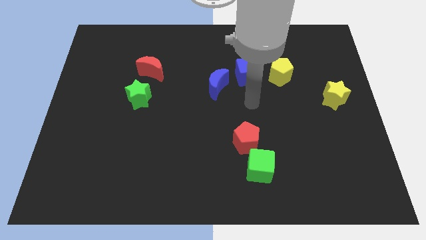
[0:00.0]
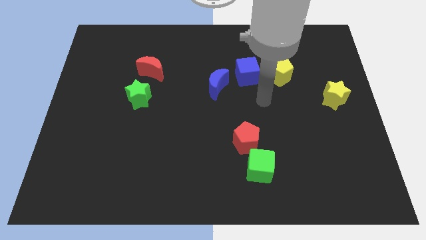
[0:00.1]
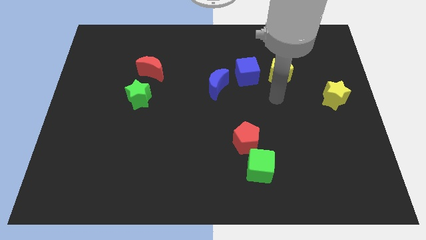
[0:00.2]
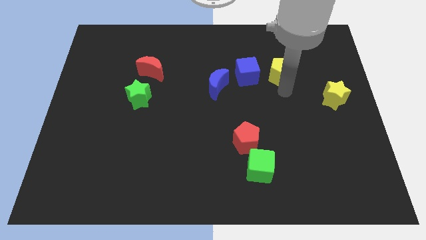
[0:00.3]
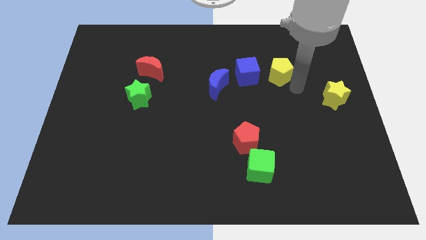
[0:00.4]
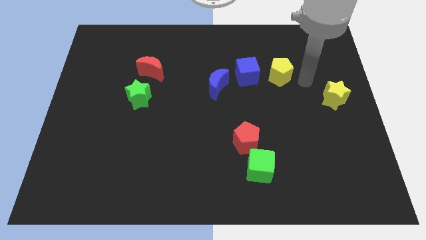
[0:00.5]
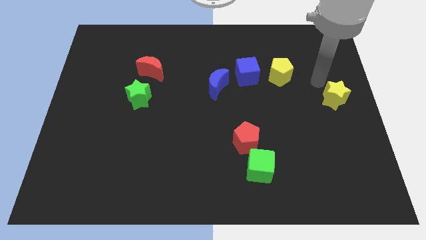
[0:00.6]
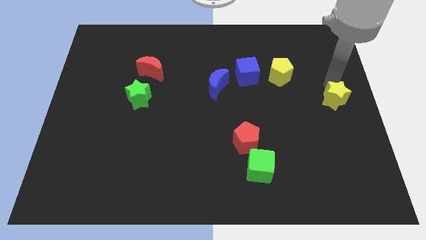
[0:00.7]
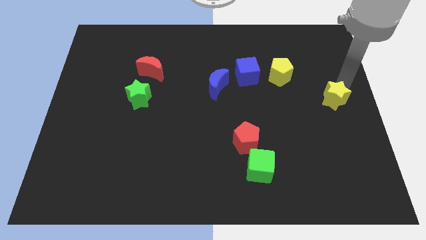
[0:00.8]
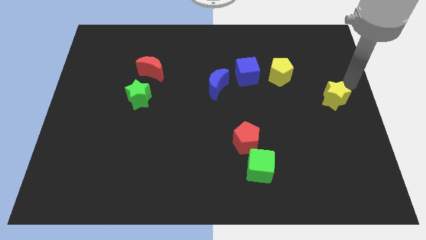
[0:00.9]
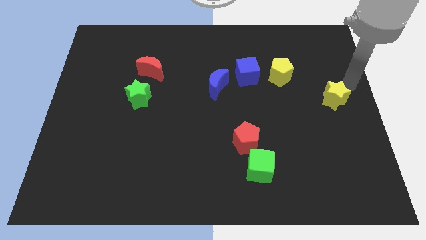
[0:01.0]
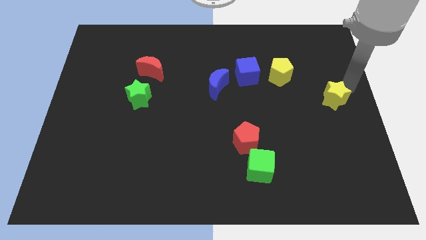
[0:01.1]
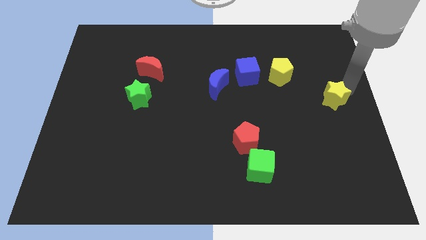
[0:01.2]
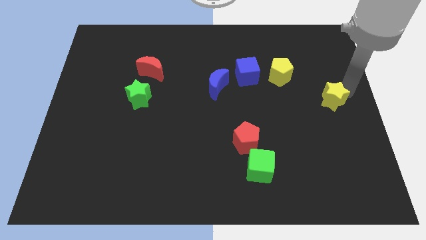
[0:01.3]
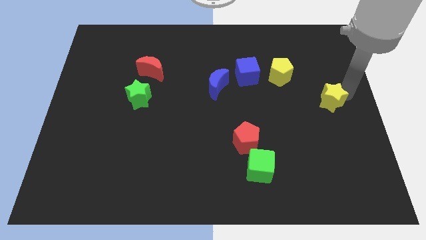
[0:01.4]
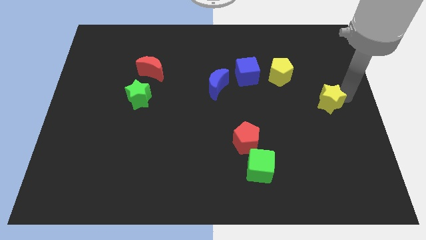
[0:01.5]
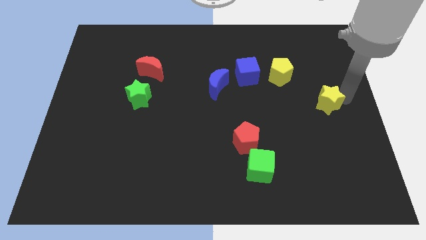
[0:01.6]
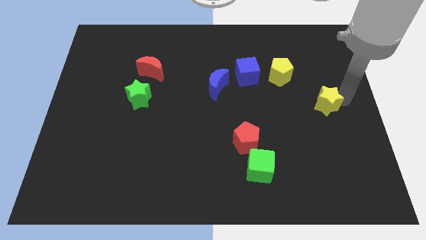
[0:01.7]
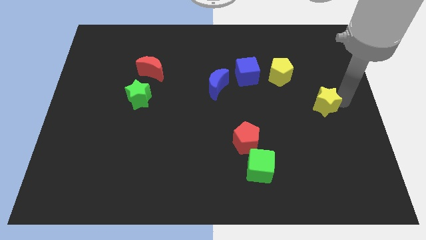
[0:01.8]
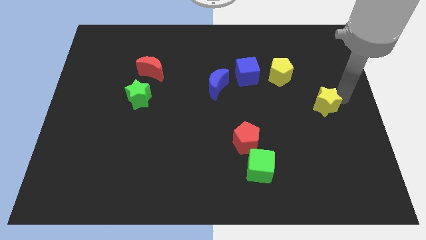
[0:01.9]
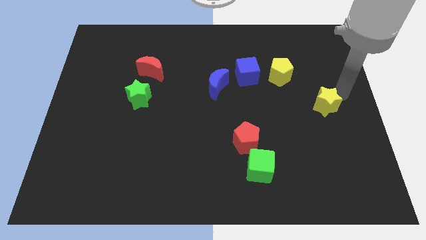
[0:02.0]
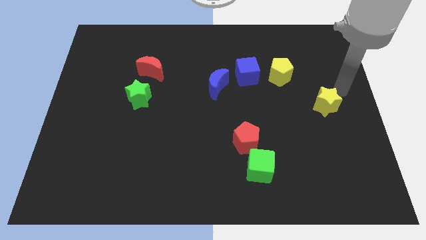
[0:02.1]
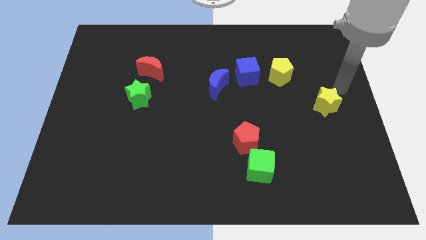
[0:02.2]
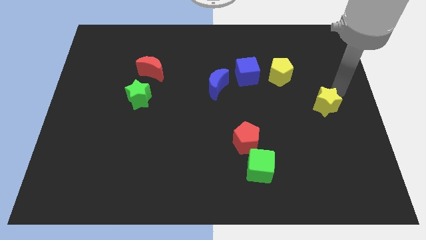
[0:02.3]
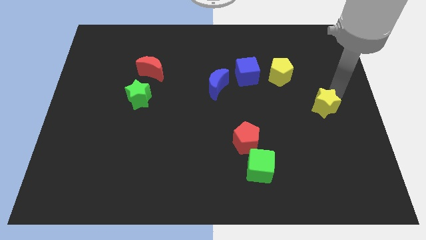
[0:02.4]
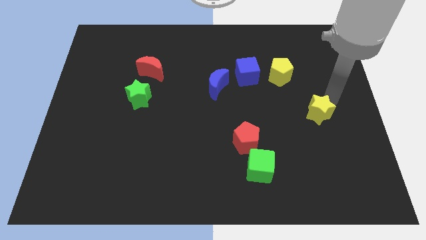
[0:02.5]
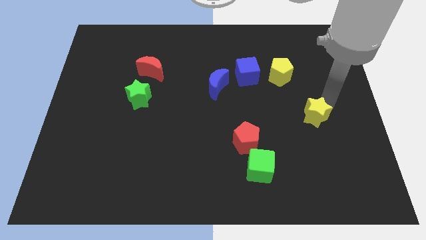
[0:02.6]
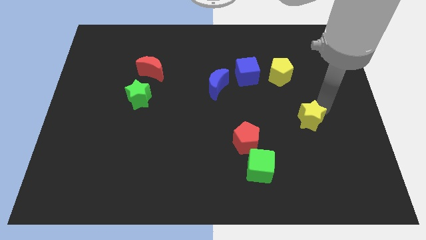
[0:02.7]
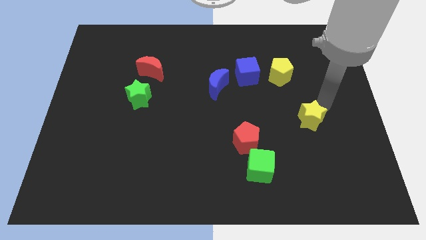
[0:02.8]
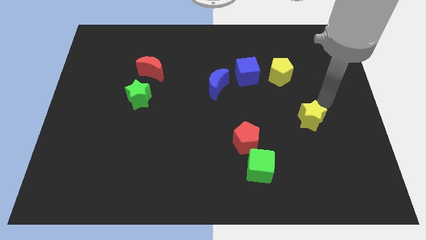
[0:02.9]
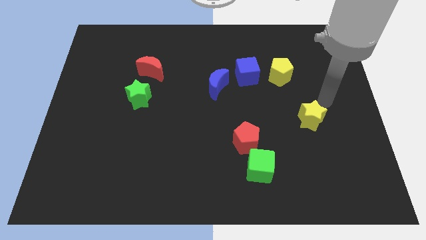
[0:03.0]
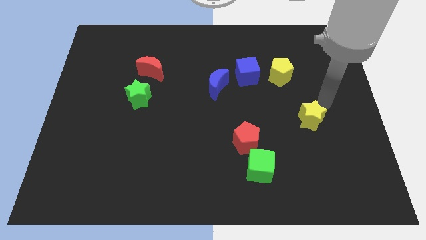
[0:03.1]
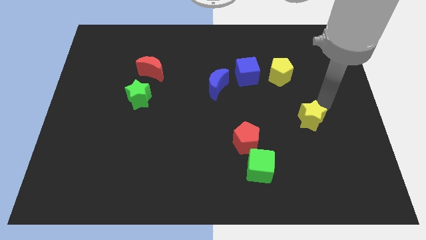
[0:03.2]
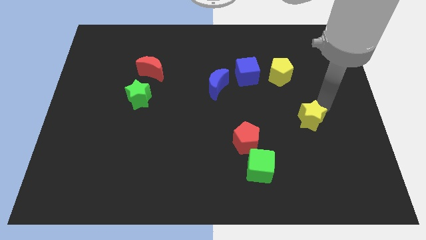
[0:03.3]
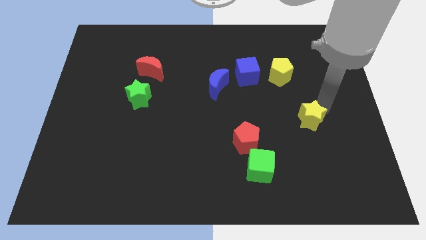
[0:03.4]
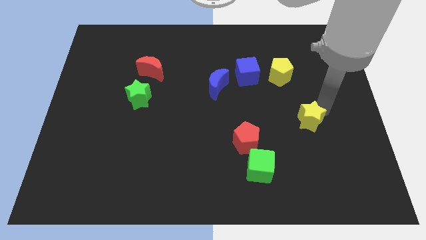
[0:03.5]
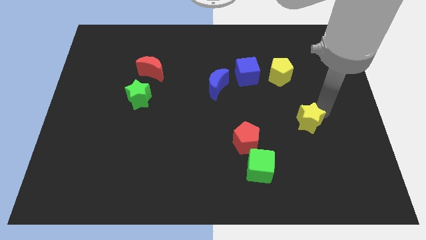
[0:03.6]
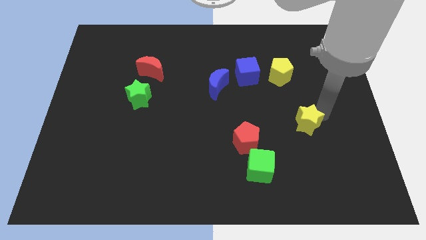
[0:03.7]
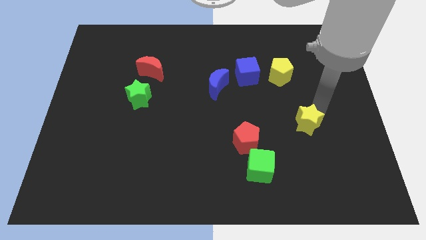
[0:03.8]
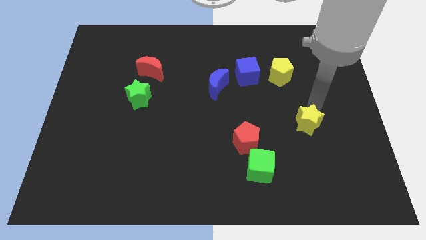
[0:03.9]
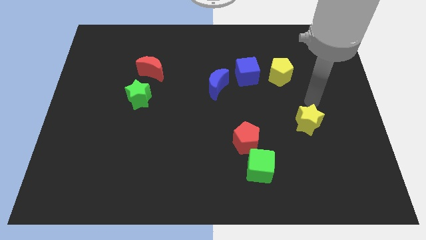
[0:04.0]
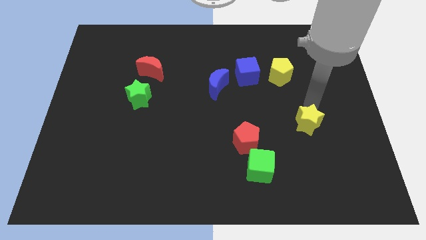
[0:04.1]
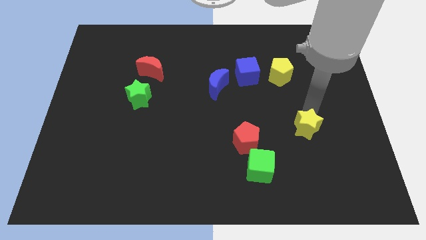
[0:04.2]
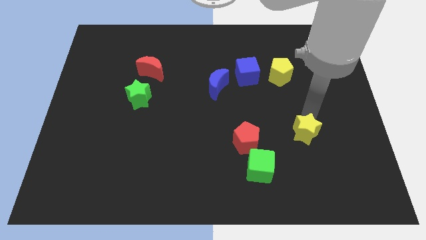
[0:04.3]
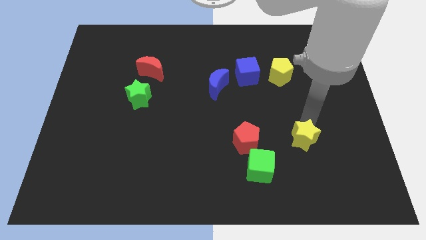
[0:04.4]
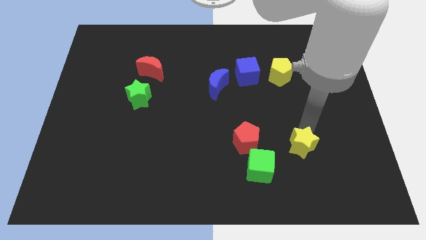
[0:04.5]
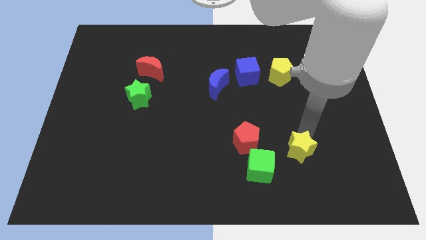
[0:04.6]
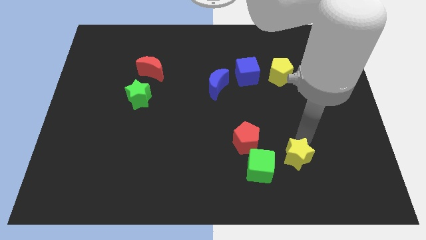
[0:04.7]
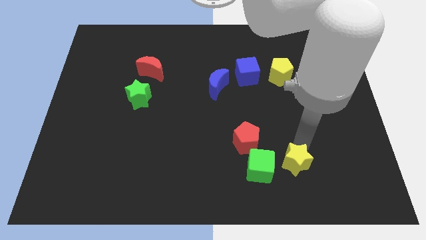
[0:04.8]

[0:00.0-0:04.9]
slide the yellow star down and left diagonally

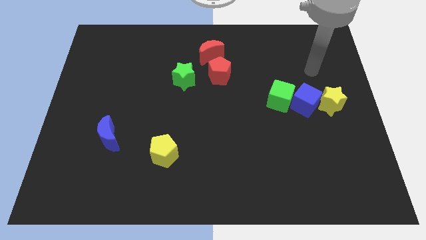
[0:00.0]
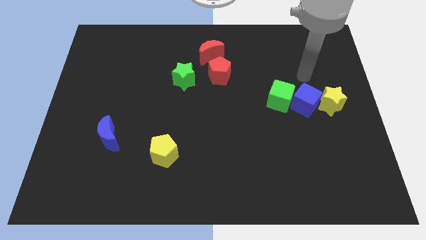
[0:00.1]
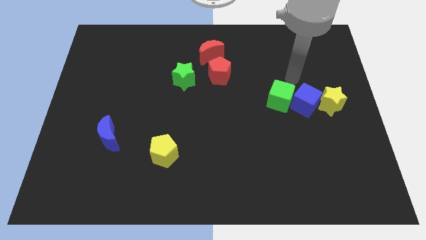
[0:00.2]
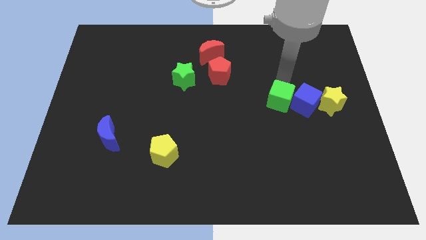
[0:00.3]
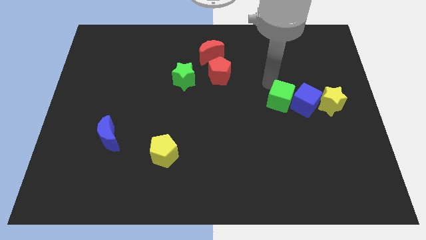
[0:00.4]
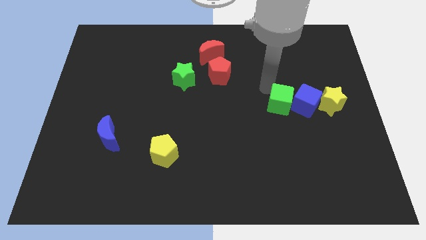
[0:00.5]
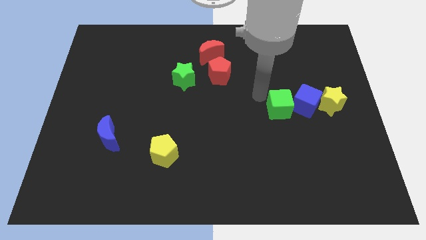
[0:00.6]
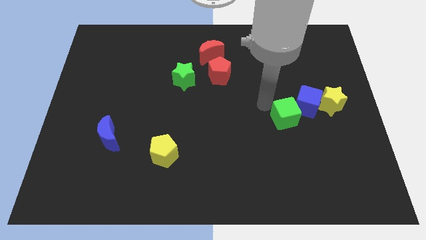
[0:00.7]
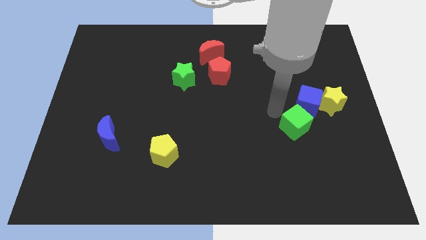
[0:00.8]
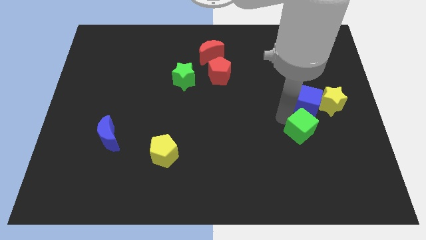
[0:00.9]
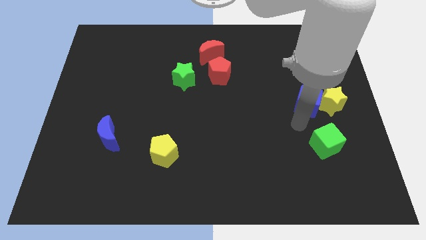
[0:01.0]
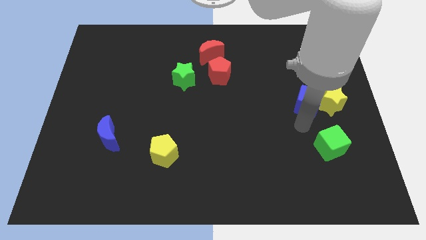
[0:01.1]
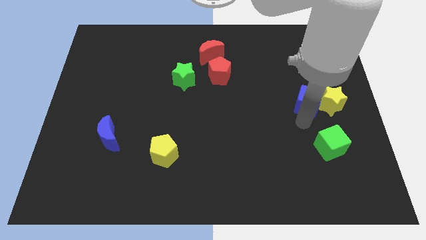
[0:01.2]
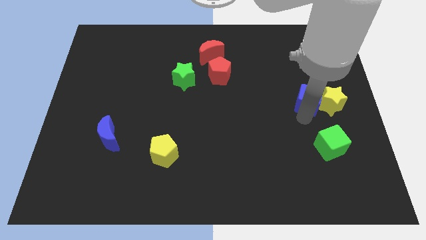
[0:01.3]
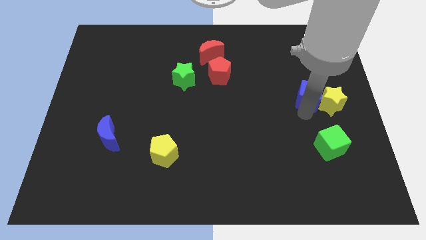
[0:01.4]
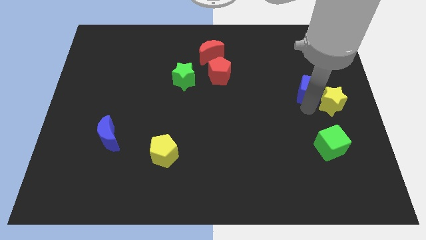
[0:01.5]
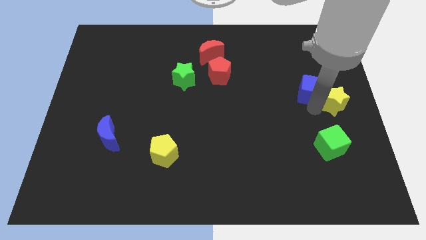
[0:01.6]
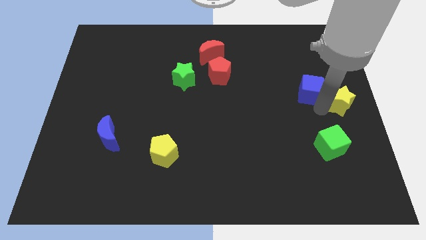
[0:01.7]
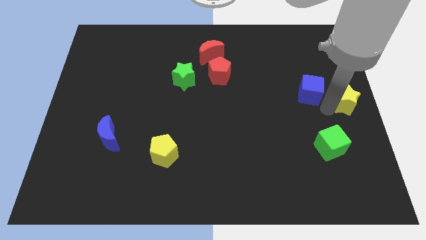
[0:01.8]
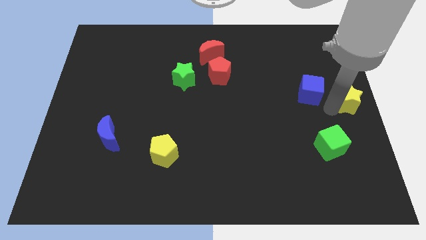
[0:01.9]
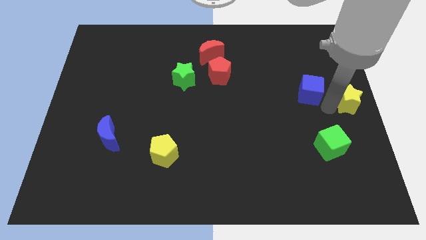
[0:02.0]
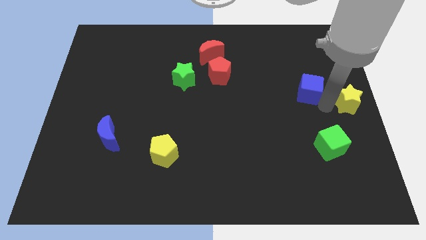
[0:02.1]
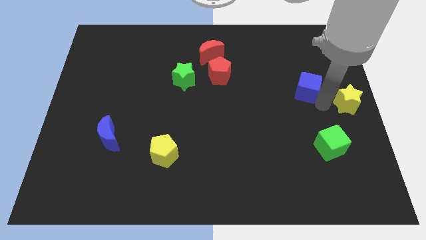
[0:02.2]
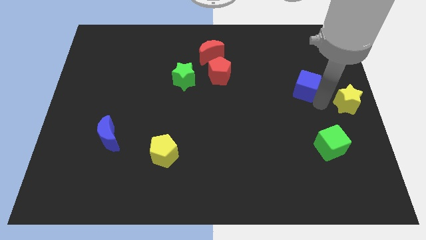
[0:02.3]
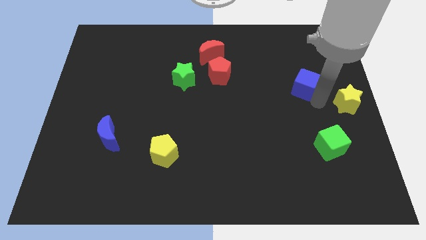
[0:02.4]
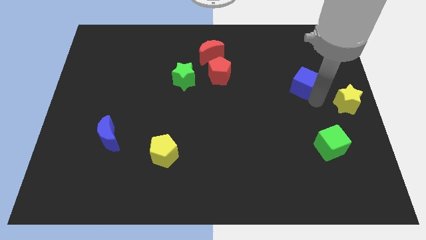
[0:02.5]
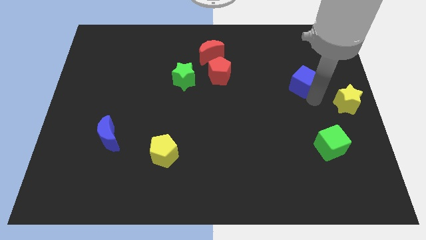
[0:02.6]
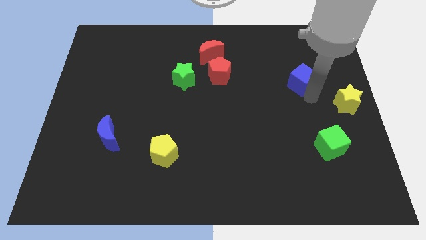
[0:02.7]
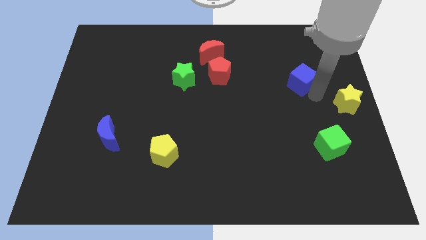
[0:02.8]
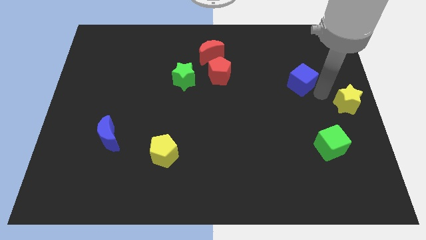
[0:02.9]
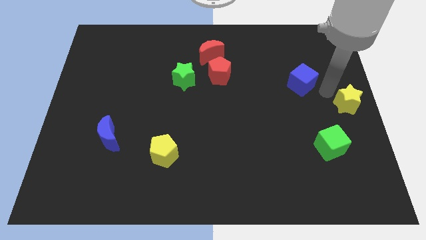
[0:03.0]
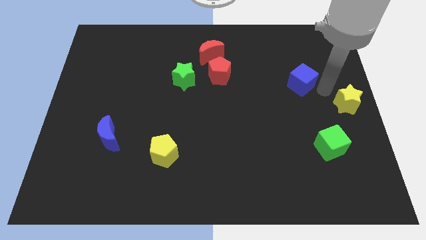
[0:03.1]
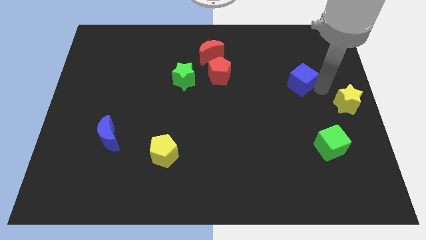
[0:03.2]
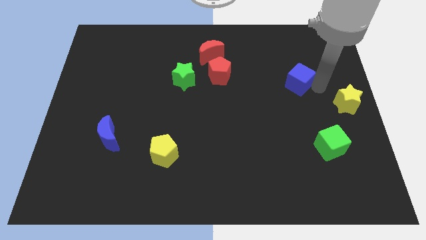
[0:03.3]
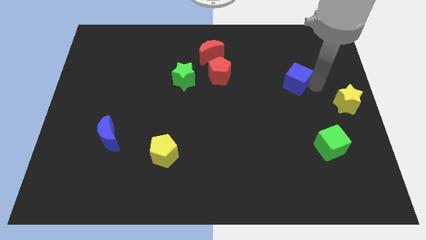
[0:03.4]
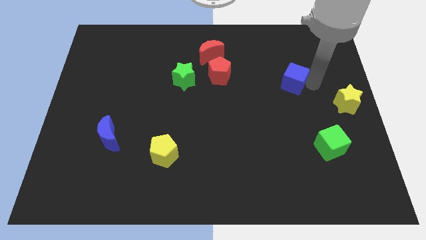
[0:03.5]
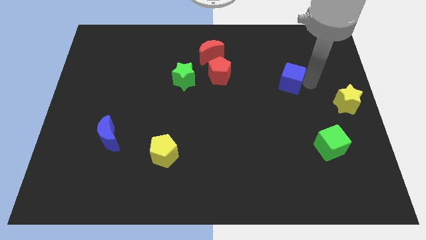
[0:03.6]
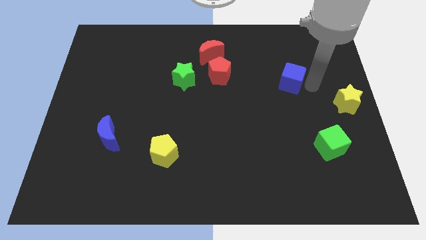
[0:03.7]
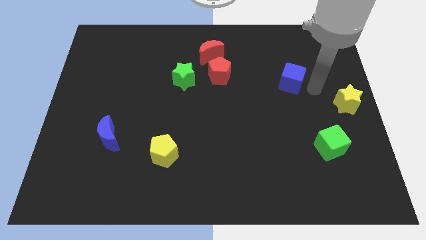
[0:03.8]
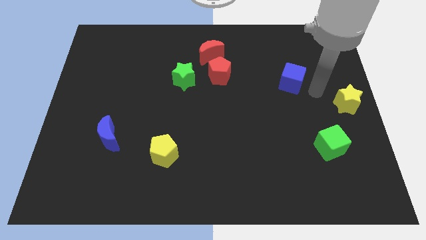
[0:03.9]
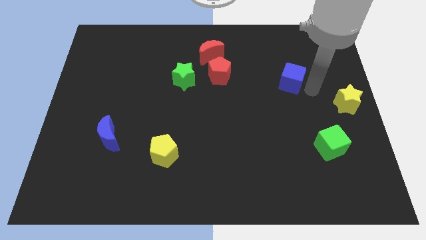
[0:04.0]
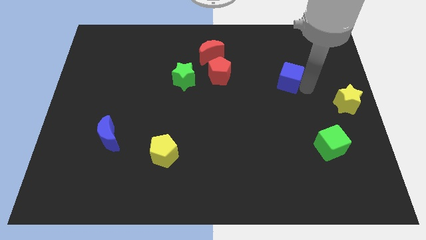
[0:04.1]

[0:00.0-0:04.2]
slide the blue cube a little bit up and left diagonally
